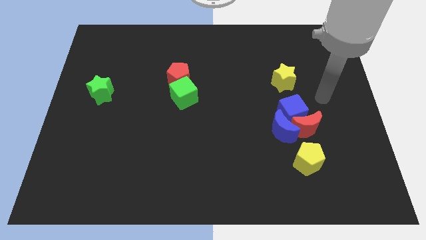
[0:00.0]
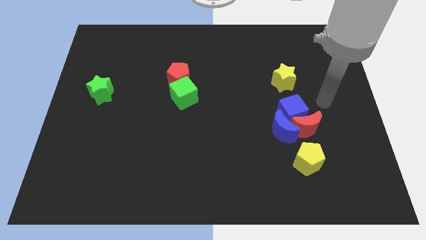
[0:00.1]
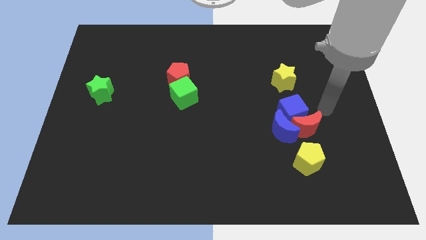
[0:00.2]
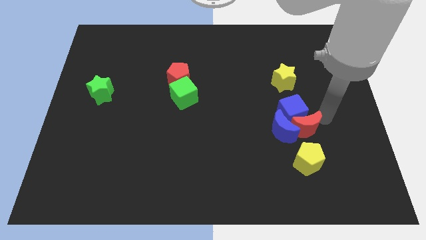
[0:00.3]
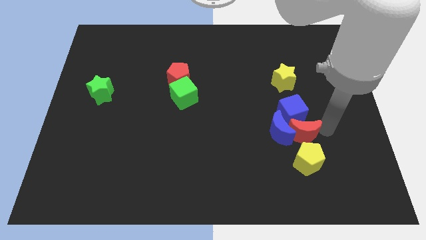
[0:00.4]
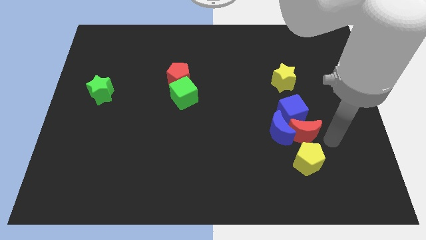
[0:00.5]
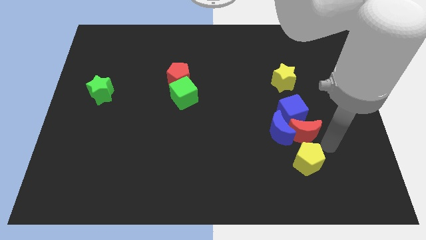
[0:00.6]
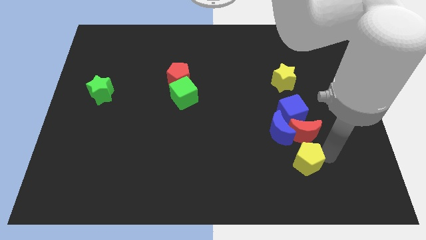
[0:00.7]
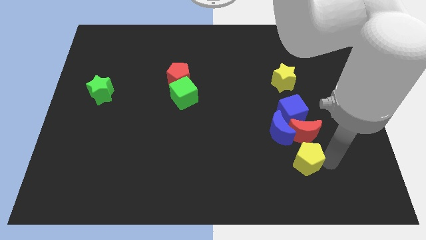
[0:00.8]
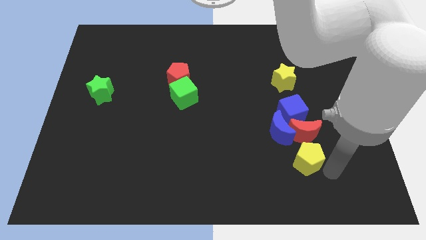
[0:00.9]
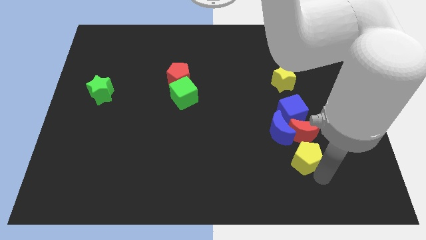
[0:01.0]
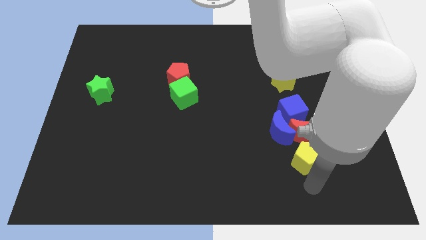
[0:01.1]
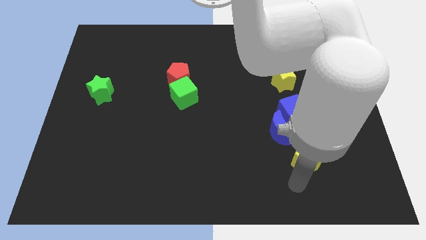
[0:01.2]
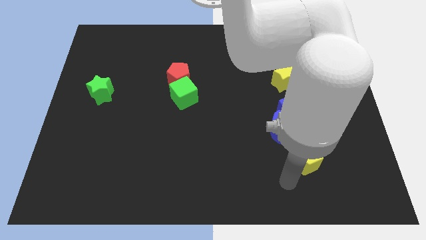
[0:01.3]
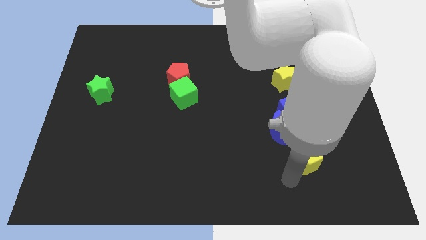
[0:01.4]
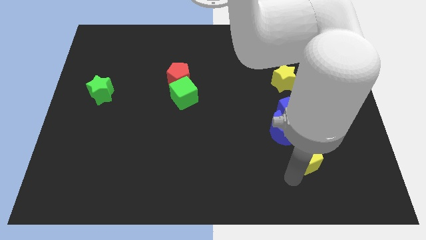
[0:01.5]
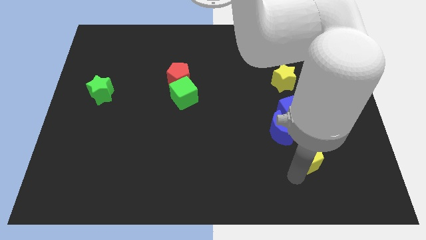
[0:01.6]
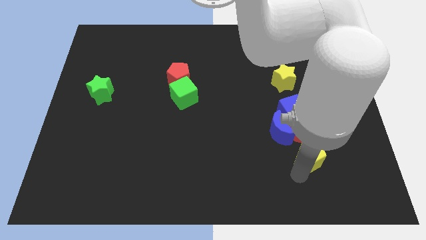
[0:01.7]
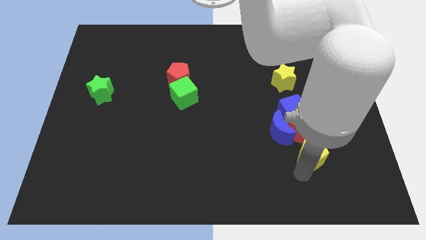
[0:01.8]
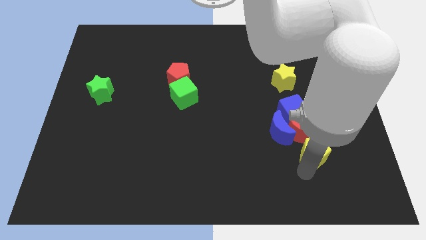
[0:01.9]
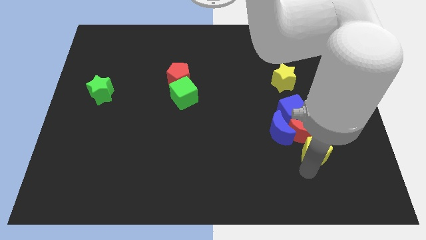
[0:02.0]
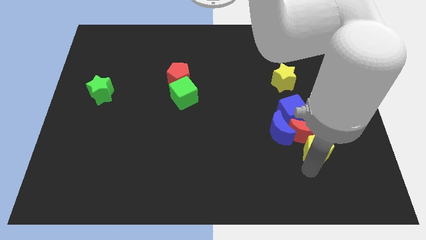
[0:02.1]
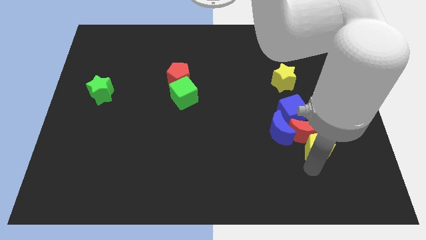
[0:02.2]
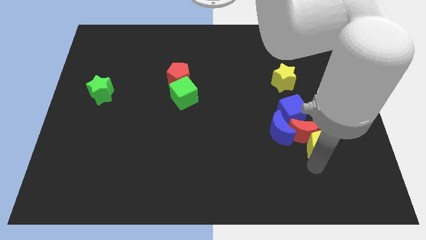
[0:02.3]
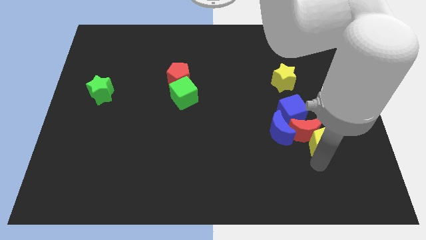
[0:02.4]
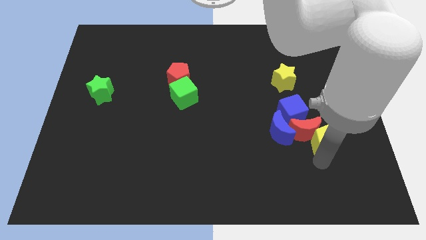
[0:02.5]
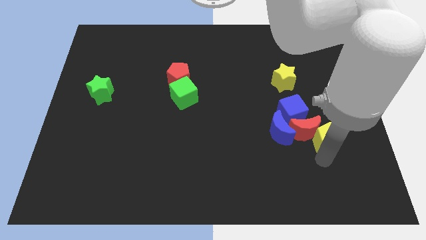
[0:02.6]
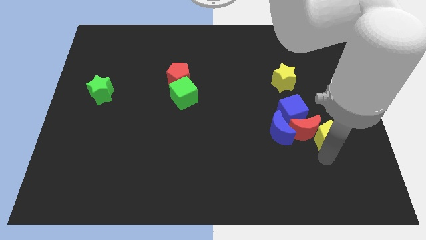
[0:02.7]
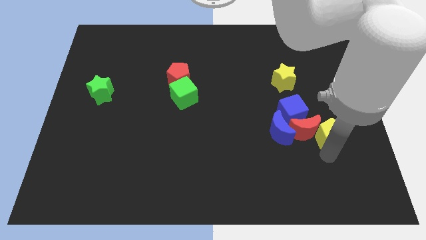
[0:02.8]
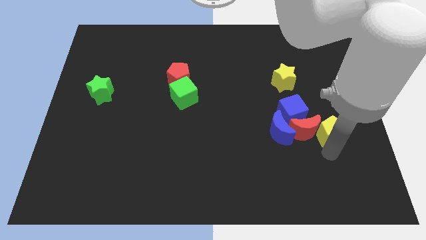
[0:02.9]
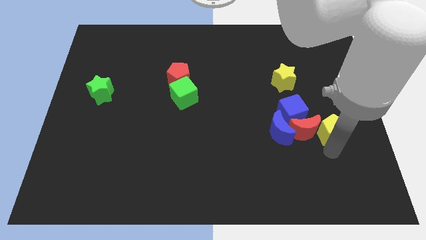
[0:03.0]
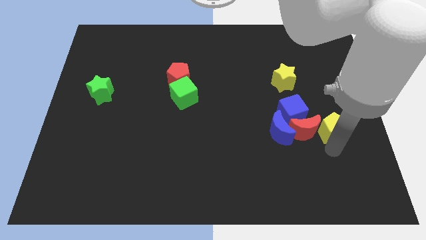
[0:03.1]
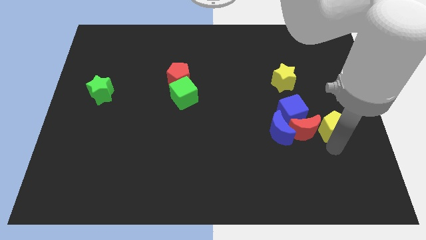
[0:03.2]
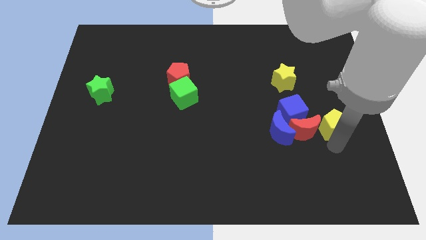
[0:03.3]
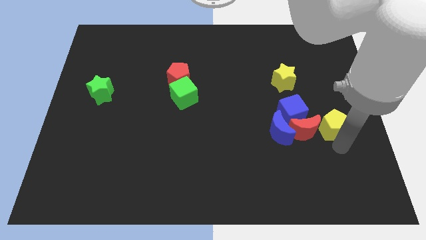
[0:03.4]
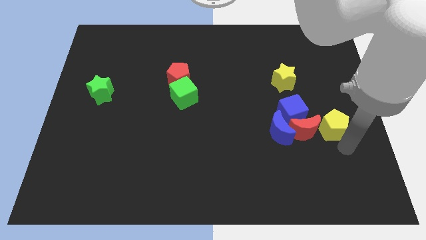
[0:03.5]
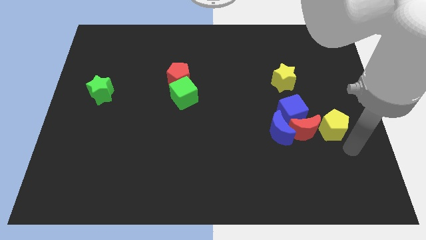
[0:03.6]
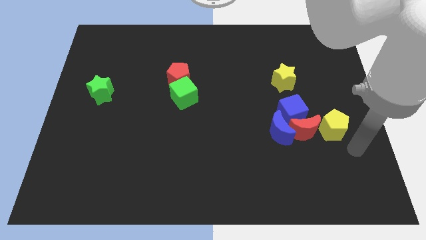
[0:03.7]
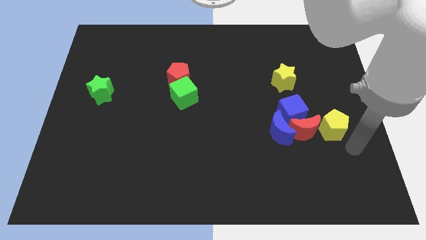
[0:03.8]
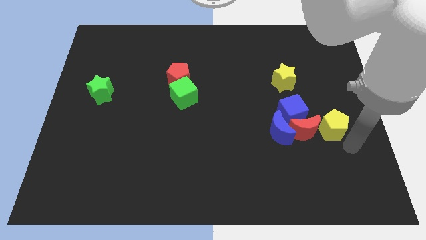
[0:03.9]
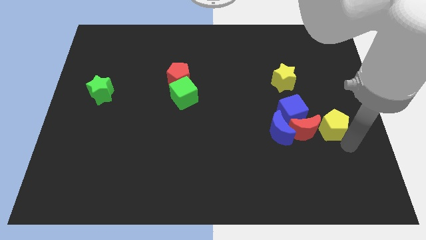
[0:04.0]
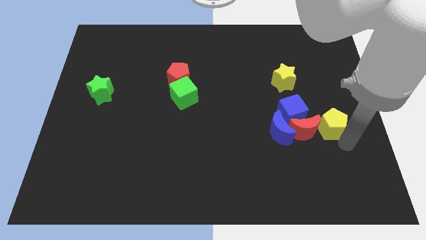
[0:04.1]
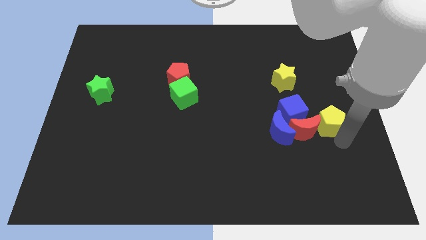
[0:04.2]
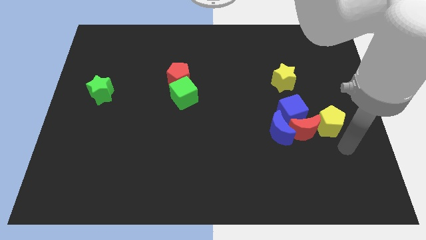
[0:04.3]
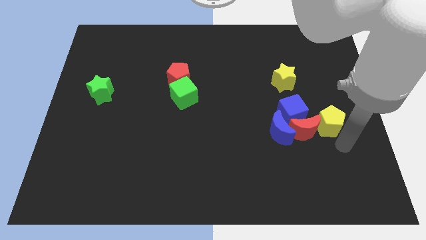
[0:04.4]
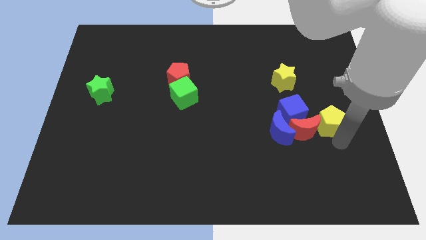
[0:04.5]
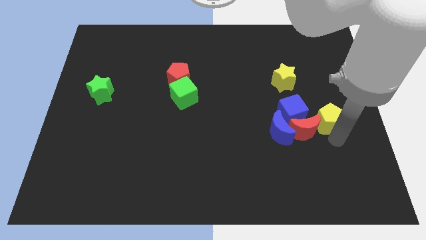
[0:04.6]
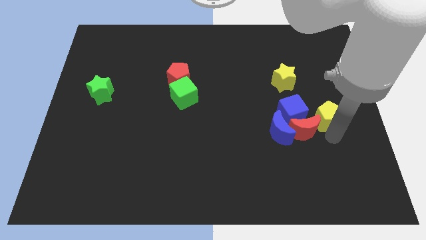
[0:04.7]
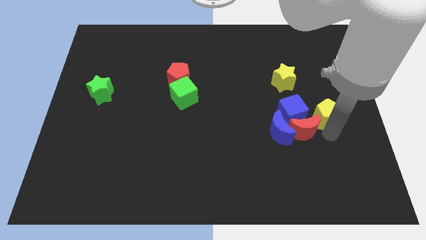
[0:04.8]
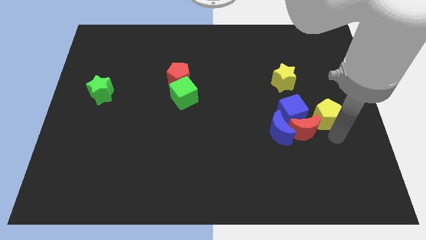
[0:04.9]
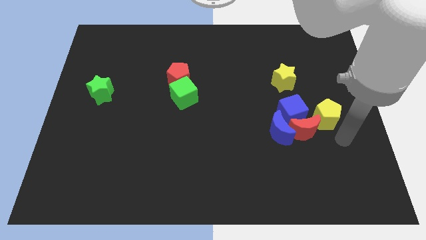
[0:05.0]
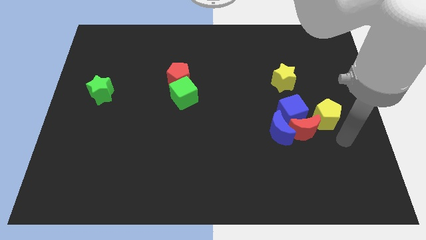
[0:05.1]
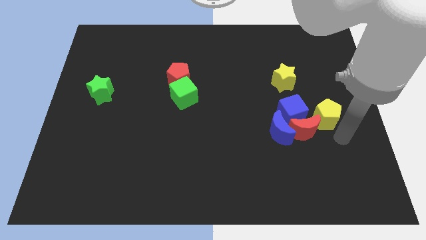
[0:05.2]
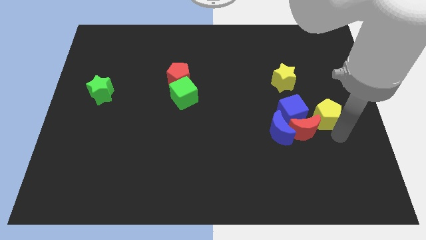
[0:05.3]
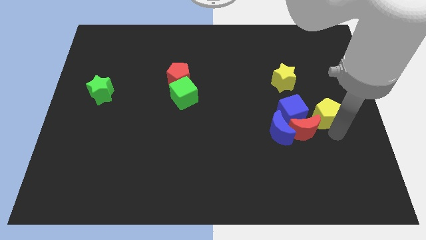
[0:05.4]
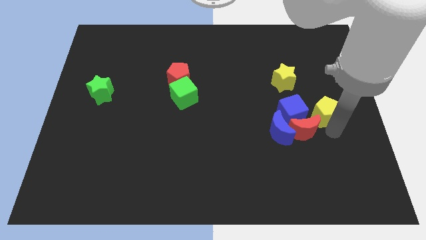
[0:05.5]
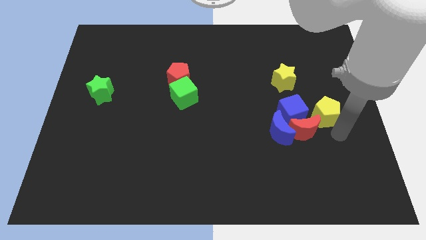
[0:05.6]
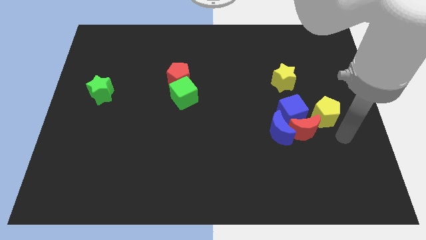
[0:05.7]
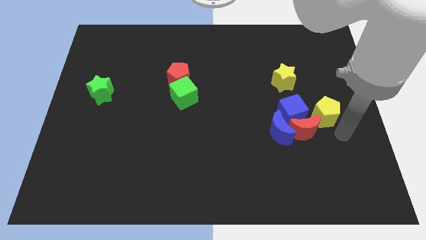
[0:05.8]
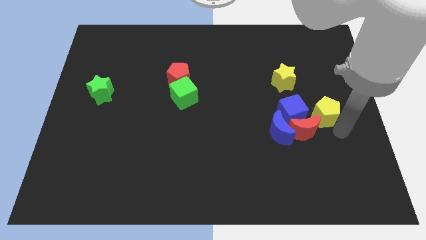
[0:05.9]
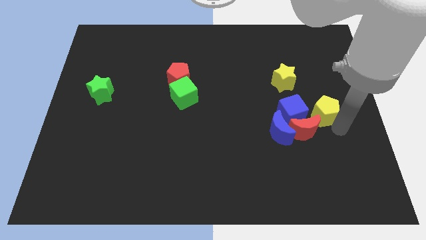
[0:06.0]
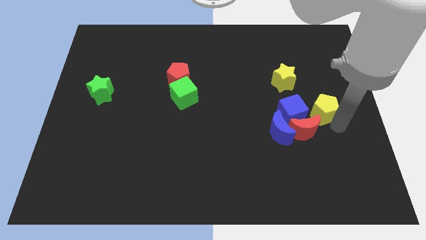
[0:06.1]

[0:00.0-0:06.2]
push the yellow pentagon to the bottom right of the yellow star

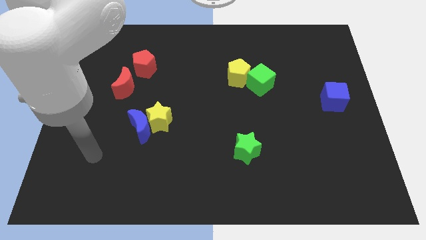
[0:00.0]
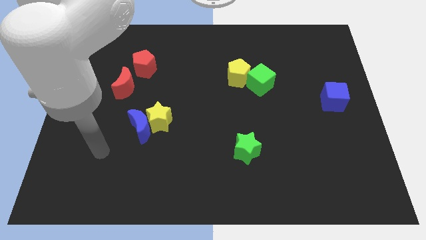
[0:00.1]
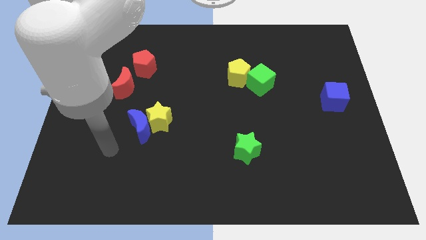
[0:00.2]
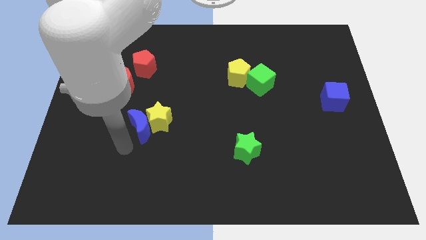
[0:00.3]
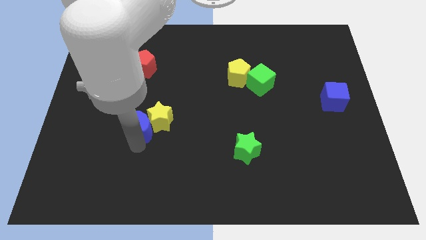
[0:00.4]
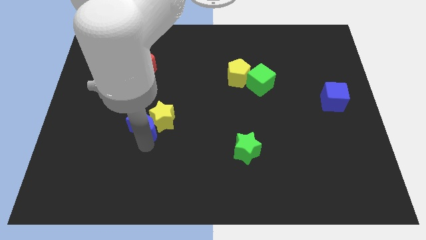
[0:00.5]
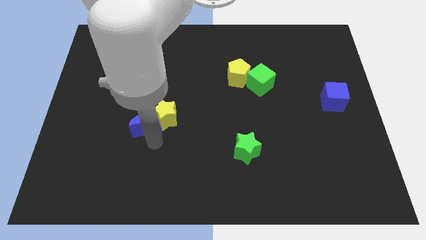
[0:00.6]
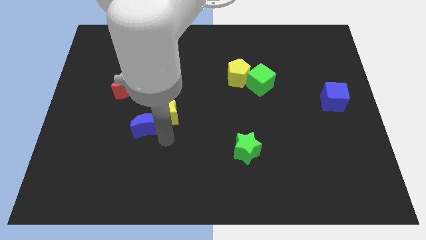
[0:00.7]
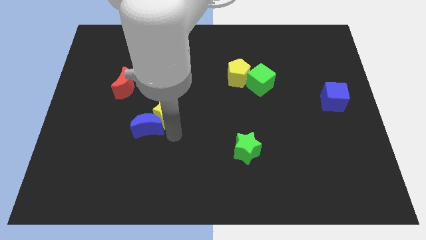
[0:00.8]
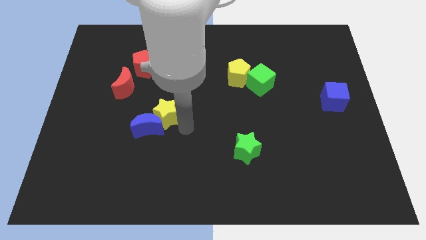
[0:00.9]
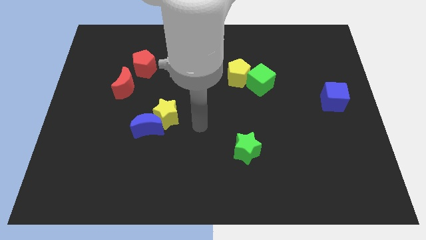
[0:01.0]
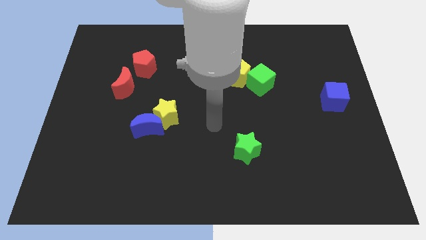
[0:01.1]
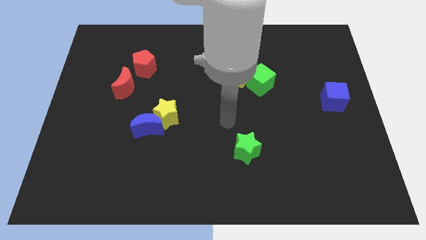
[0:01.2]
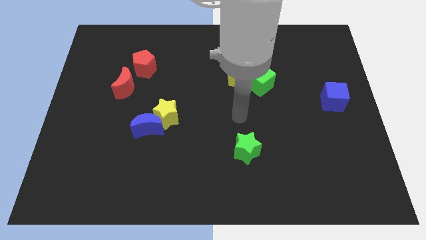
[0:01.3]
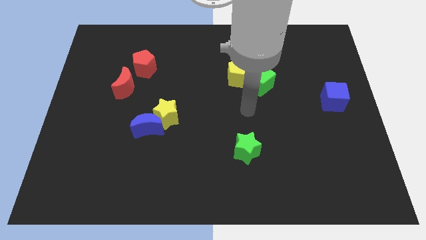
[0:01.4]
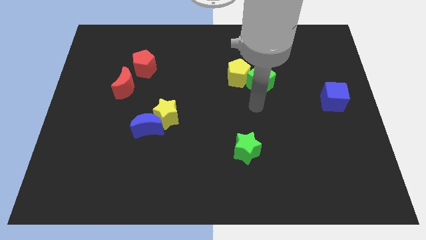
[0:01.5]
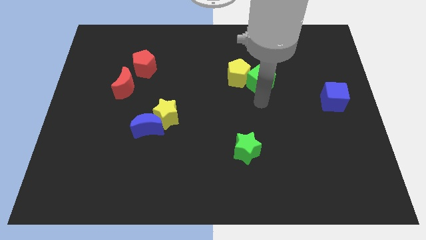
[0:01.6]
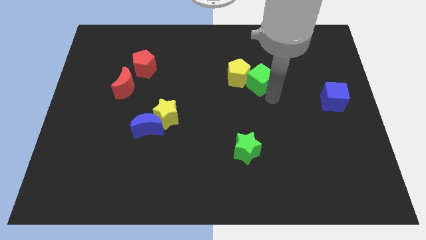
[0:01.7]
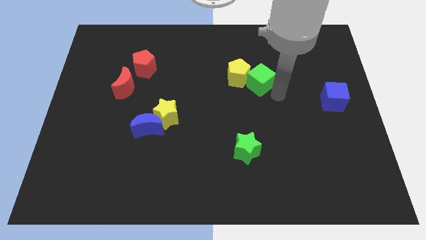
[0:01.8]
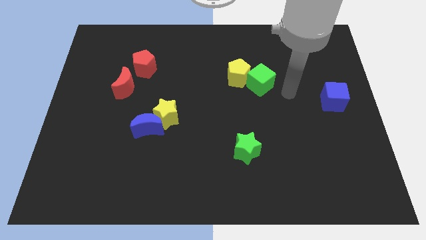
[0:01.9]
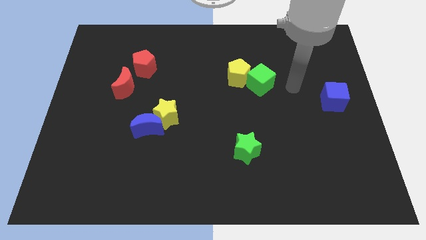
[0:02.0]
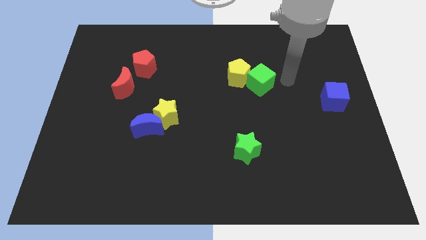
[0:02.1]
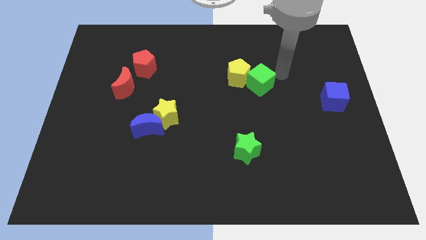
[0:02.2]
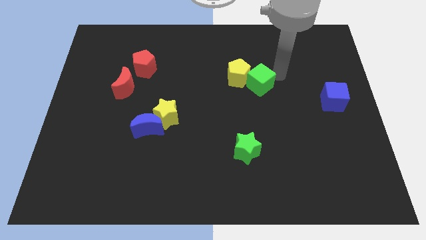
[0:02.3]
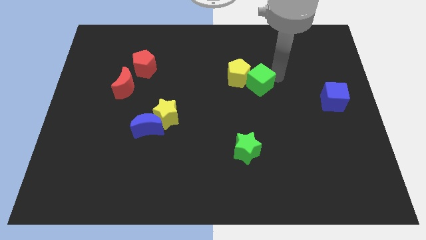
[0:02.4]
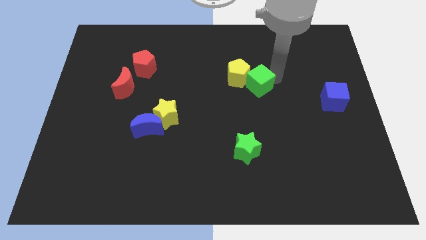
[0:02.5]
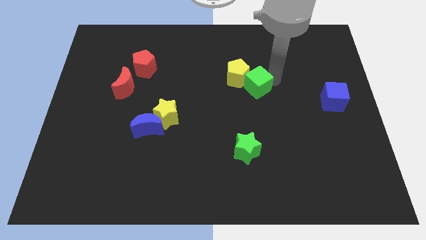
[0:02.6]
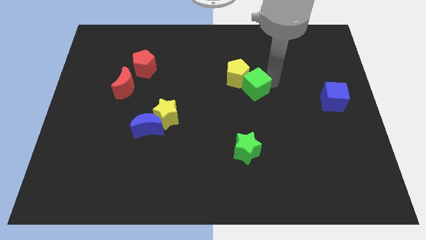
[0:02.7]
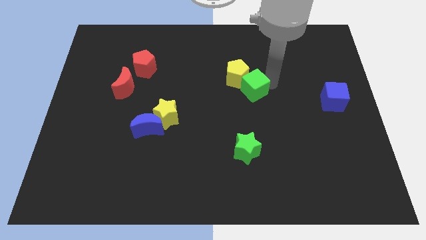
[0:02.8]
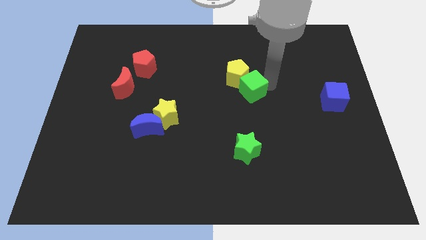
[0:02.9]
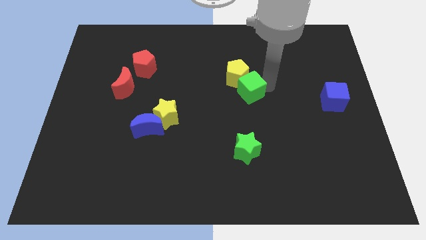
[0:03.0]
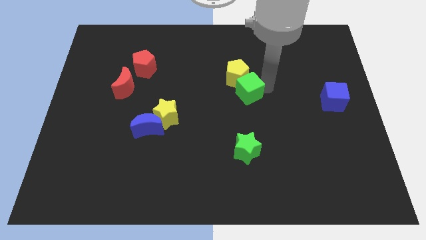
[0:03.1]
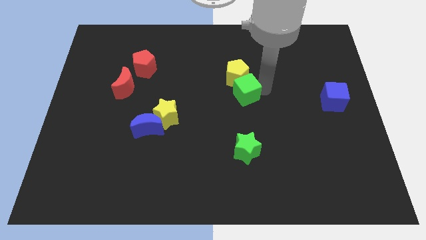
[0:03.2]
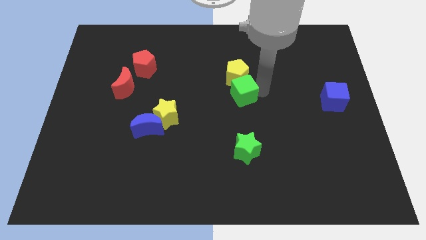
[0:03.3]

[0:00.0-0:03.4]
push the green cube to the bottom left of the yellow pentagon
